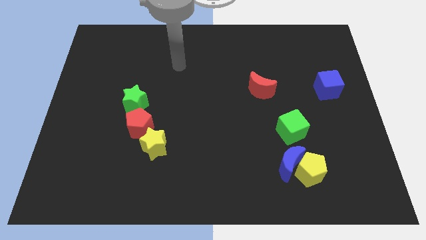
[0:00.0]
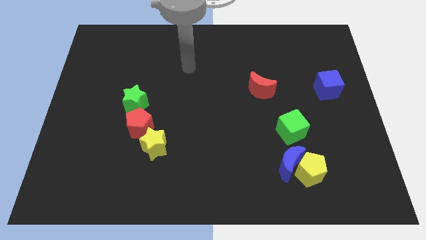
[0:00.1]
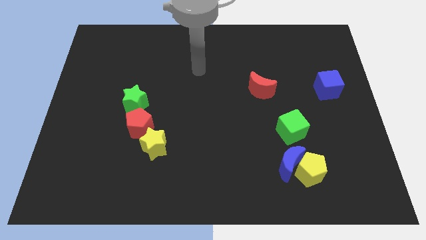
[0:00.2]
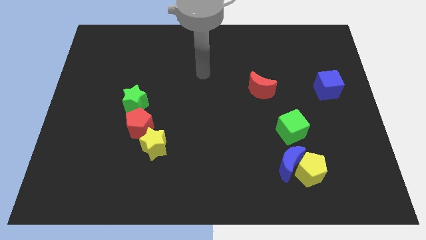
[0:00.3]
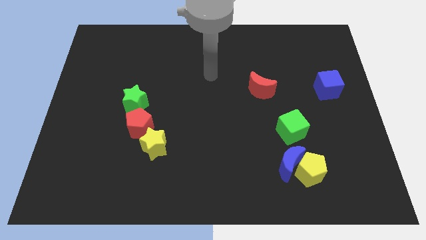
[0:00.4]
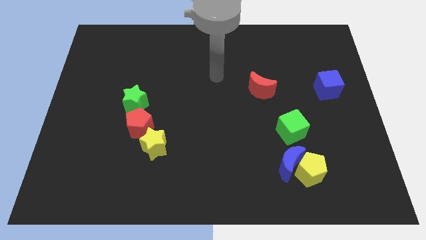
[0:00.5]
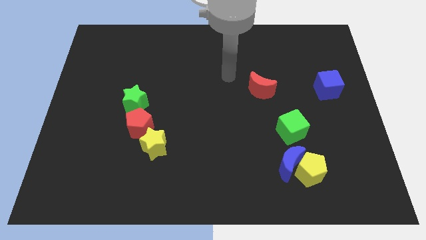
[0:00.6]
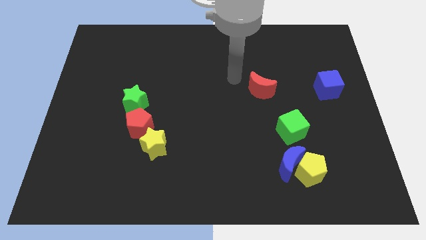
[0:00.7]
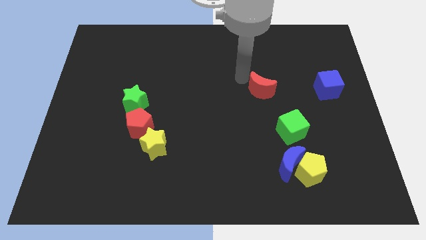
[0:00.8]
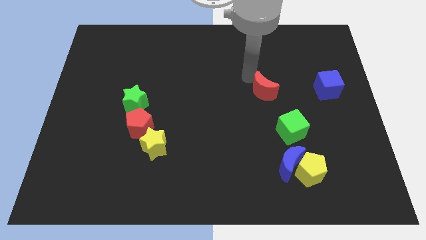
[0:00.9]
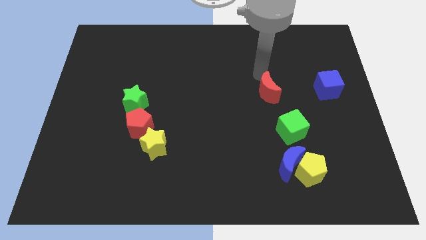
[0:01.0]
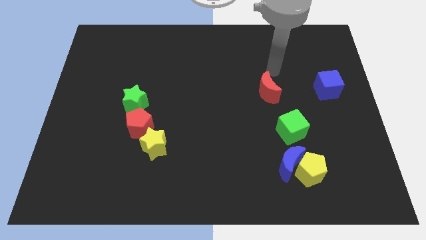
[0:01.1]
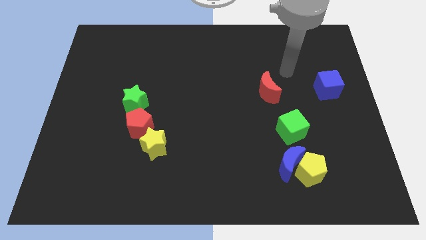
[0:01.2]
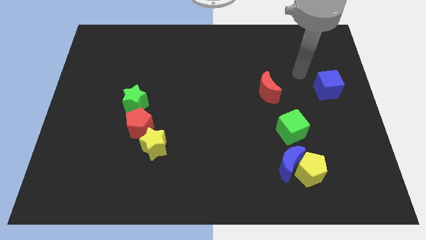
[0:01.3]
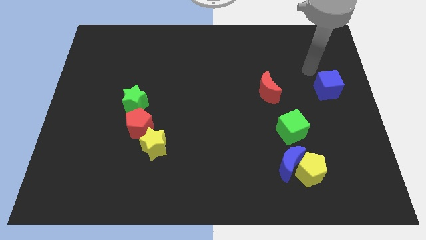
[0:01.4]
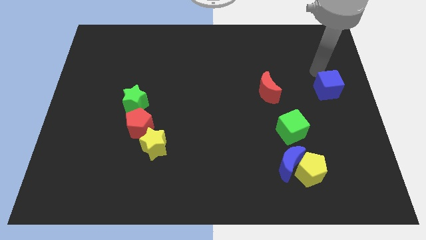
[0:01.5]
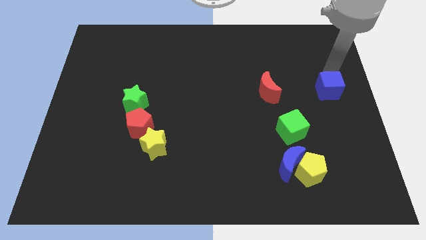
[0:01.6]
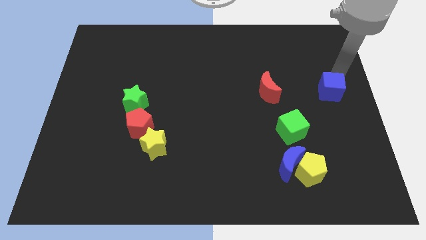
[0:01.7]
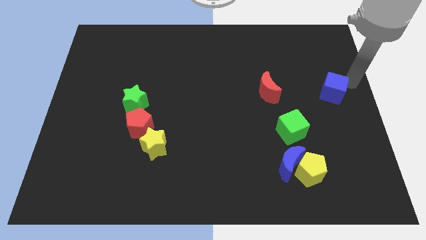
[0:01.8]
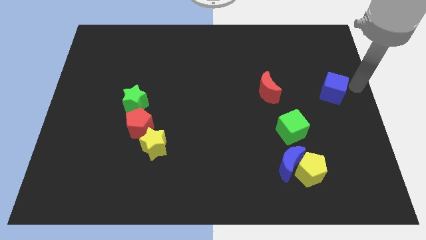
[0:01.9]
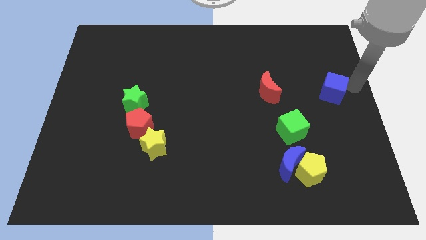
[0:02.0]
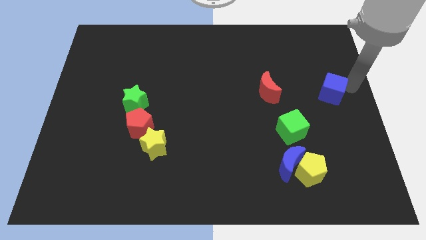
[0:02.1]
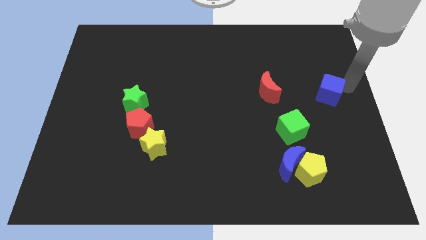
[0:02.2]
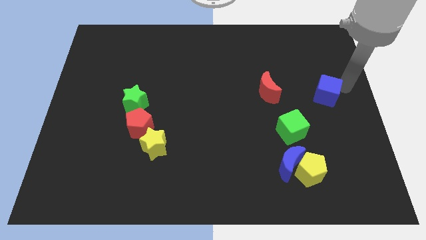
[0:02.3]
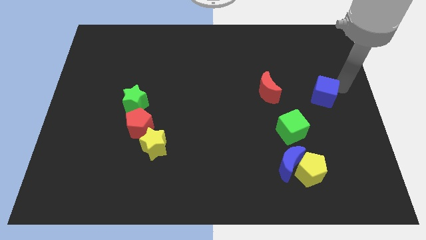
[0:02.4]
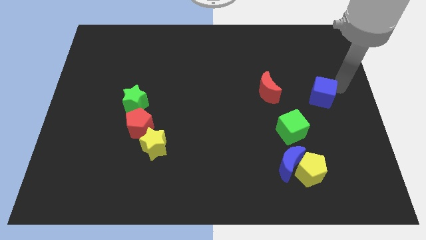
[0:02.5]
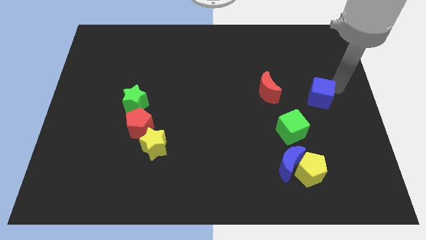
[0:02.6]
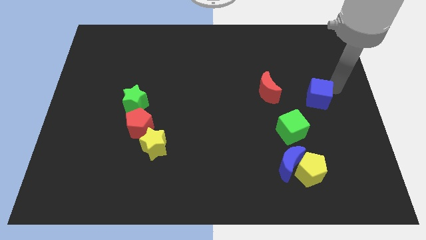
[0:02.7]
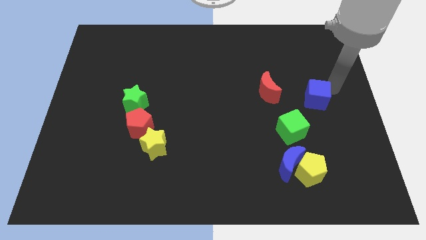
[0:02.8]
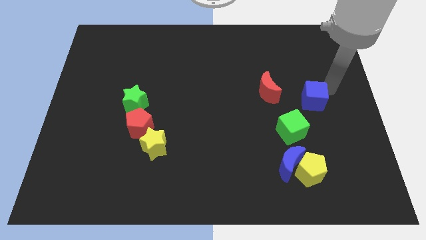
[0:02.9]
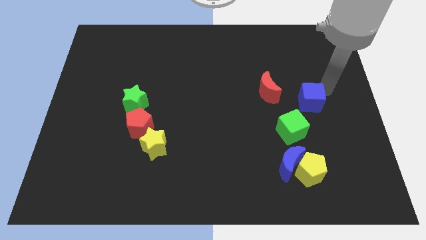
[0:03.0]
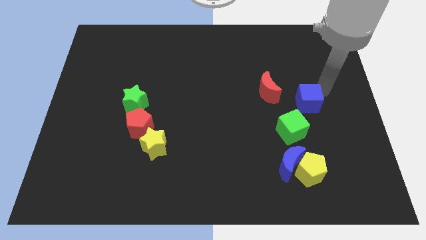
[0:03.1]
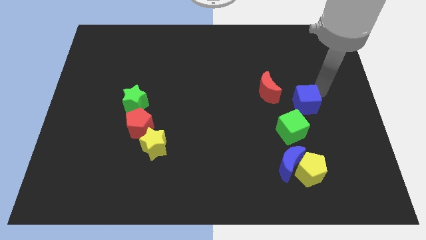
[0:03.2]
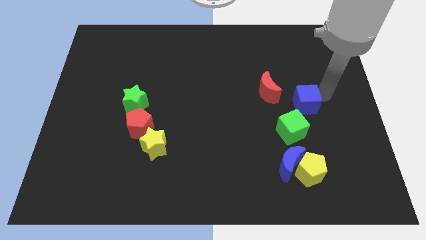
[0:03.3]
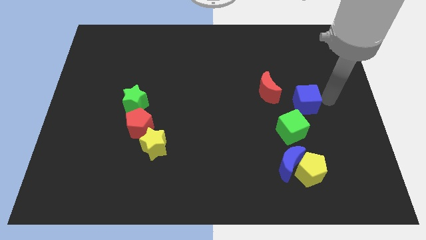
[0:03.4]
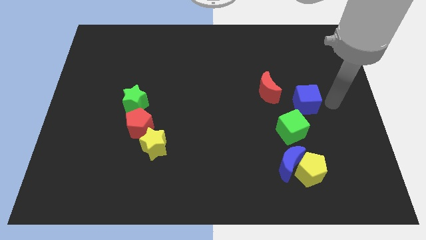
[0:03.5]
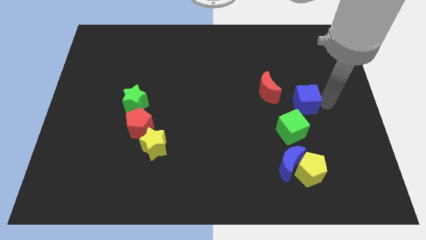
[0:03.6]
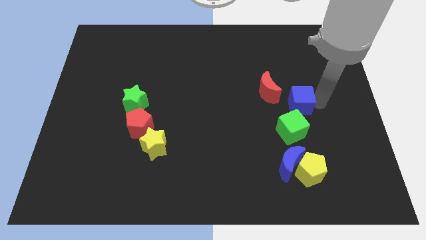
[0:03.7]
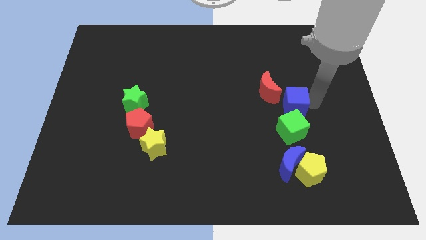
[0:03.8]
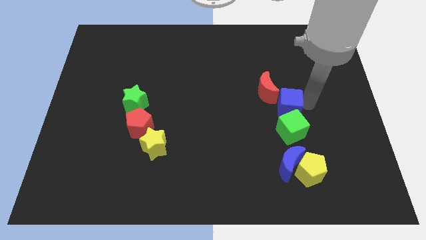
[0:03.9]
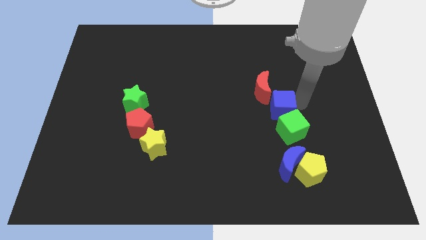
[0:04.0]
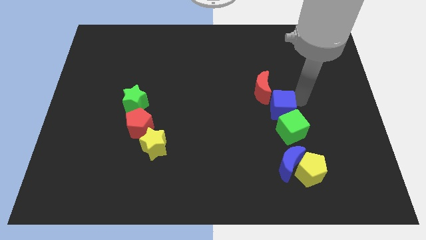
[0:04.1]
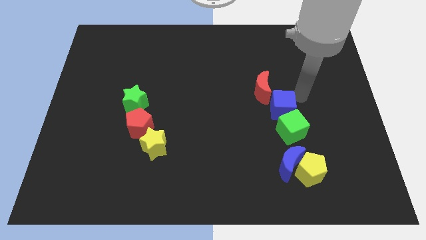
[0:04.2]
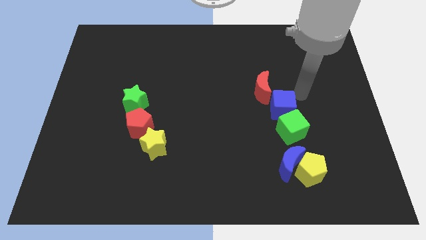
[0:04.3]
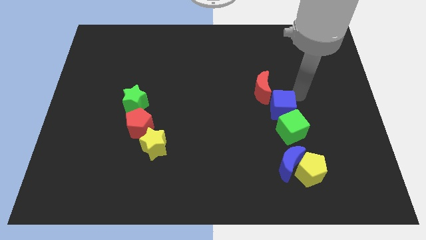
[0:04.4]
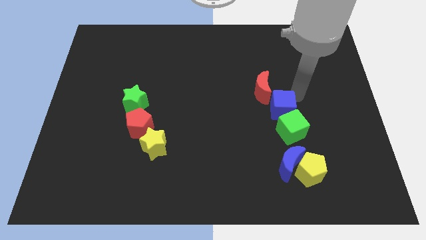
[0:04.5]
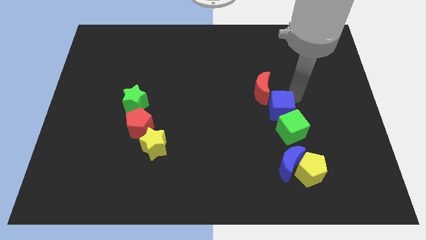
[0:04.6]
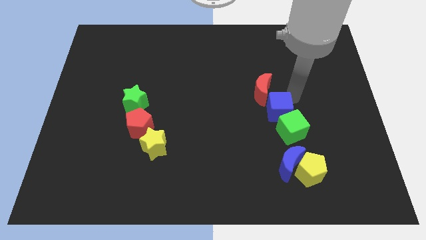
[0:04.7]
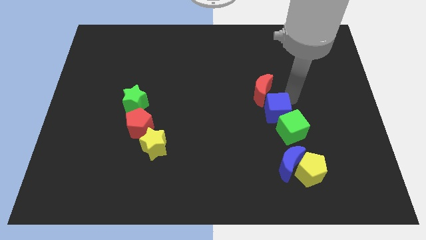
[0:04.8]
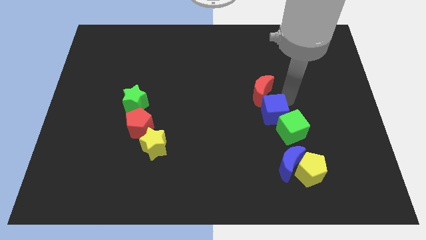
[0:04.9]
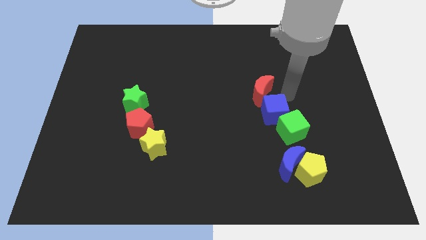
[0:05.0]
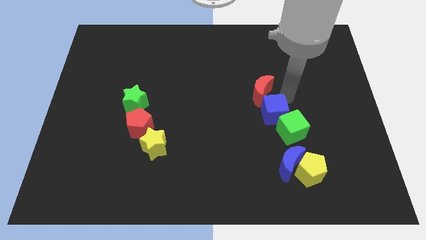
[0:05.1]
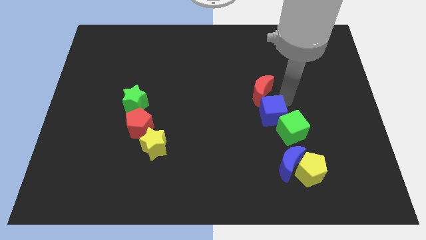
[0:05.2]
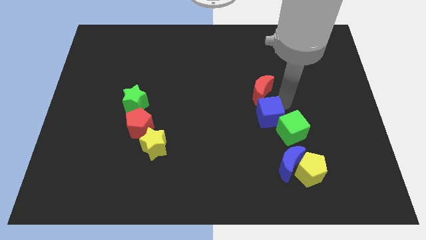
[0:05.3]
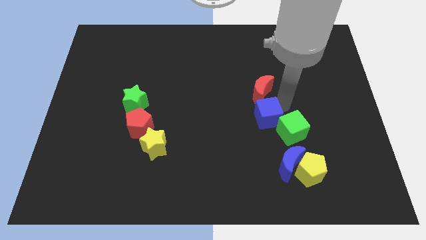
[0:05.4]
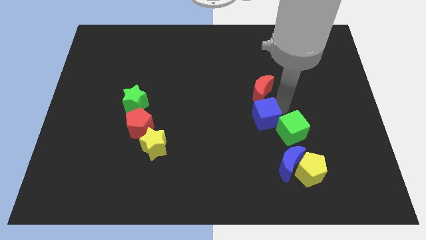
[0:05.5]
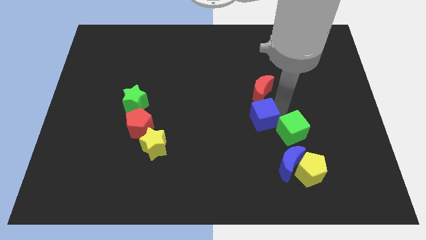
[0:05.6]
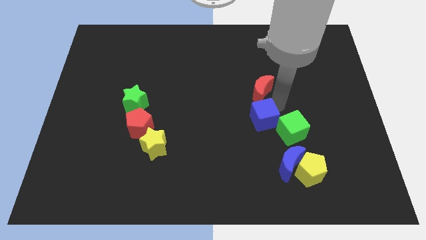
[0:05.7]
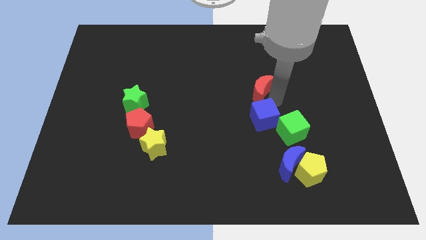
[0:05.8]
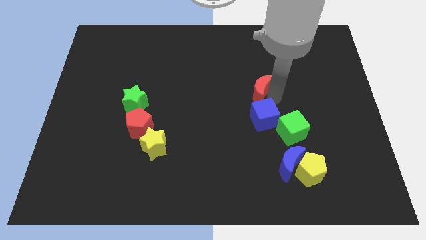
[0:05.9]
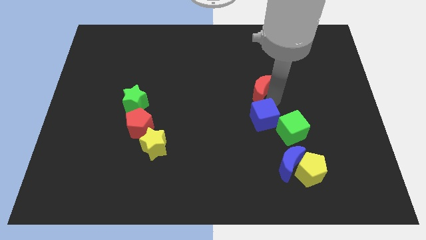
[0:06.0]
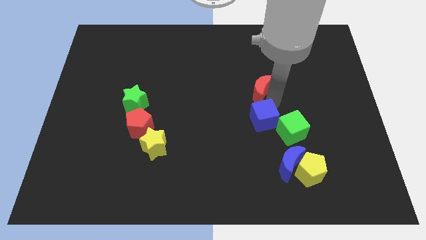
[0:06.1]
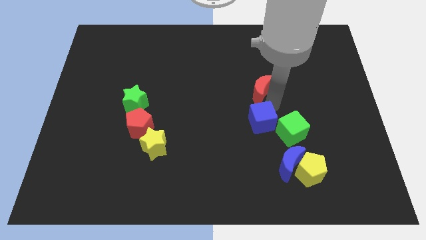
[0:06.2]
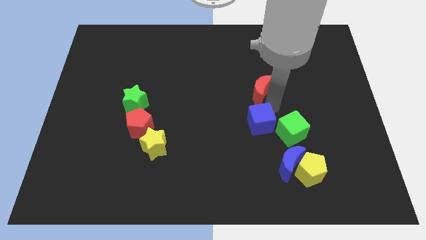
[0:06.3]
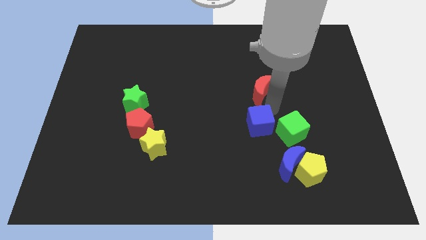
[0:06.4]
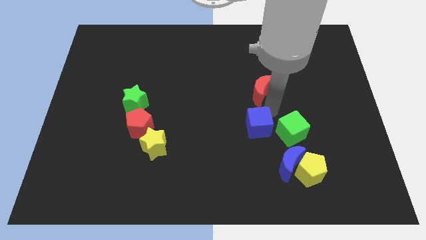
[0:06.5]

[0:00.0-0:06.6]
move the blue cube down and left diagonally

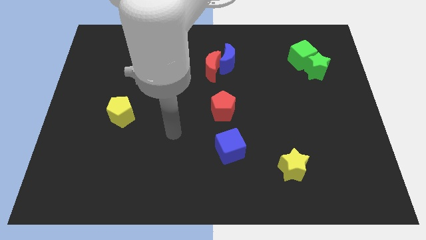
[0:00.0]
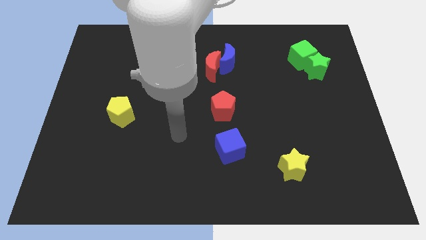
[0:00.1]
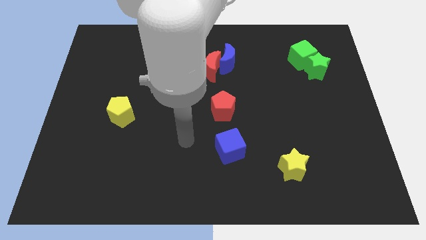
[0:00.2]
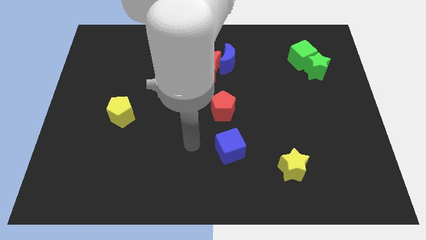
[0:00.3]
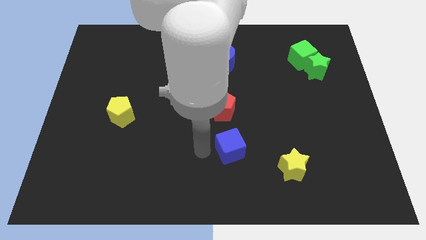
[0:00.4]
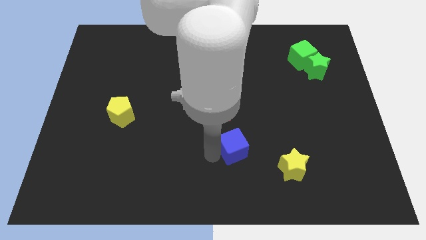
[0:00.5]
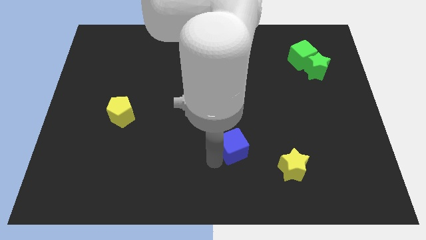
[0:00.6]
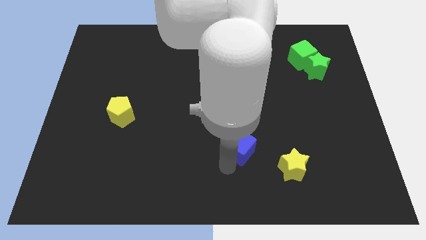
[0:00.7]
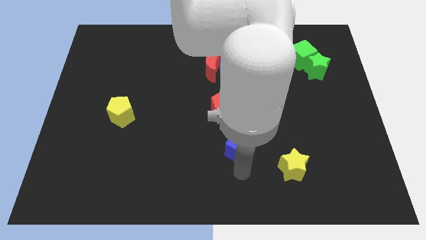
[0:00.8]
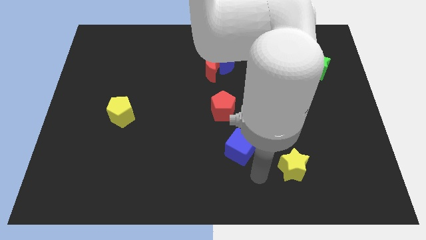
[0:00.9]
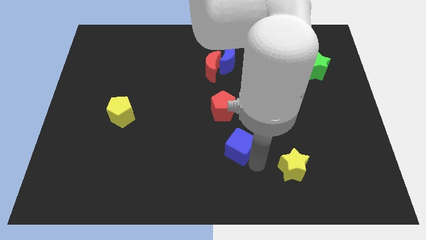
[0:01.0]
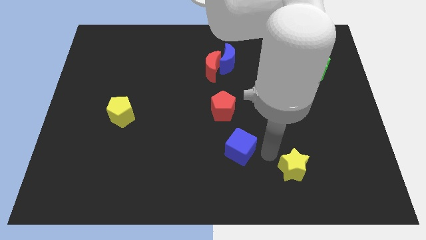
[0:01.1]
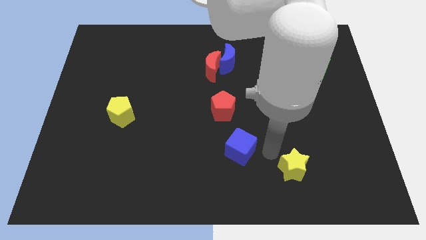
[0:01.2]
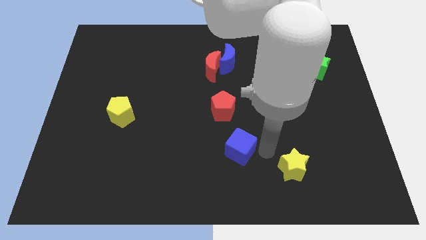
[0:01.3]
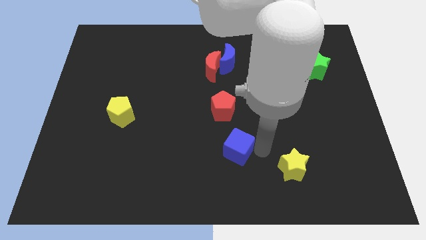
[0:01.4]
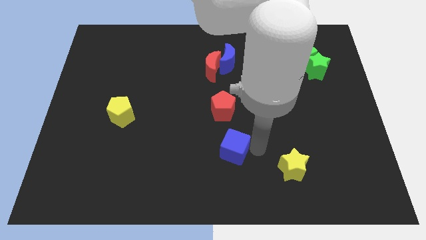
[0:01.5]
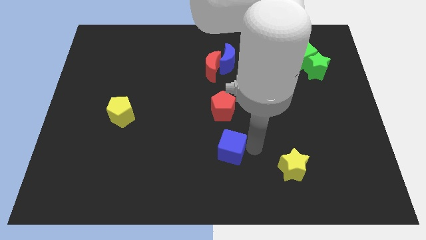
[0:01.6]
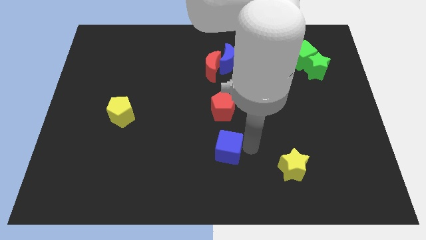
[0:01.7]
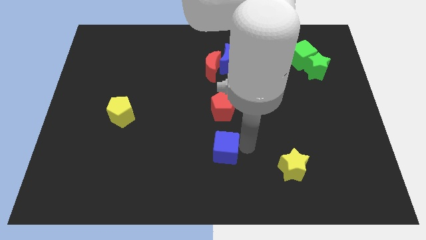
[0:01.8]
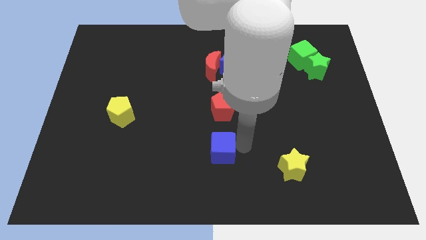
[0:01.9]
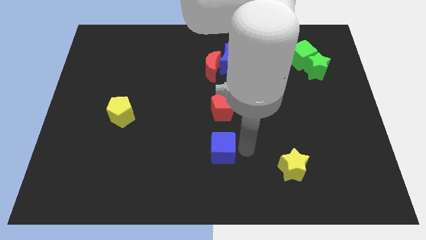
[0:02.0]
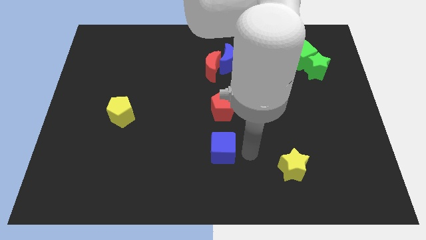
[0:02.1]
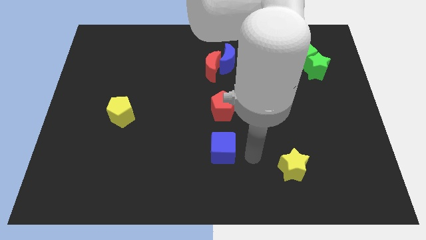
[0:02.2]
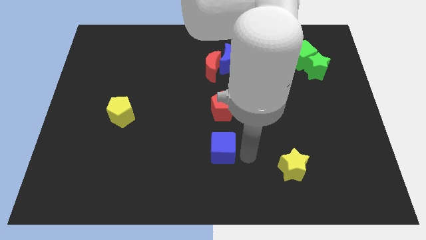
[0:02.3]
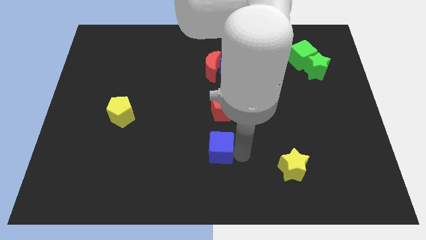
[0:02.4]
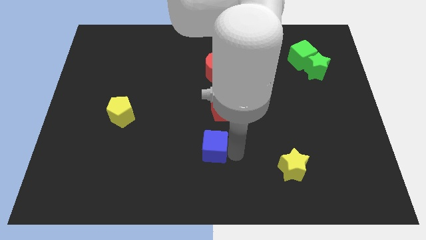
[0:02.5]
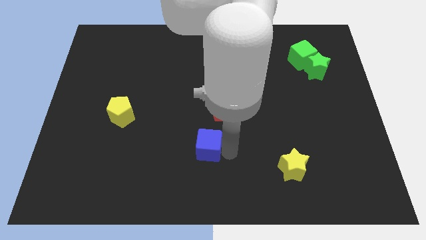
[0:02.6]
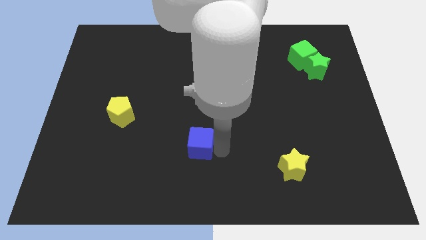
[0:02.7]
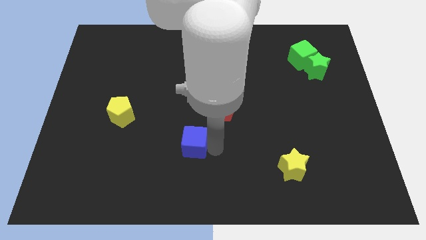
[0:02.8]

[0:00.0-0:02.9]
move the blue cube to the left a little bit
